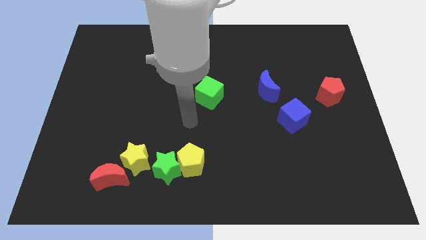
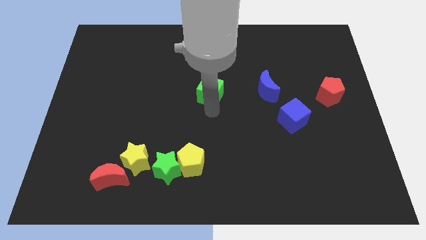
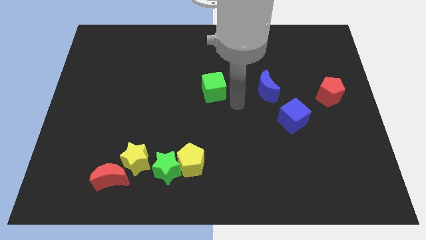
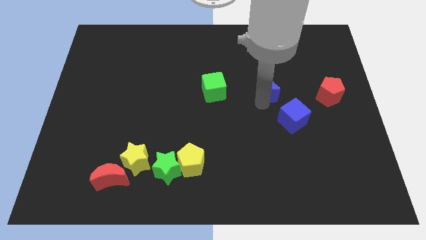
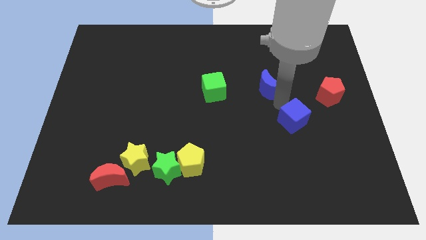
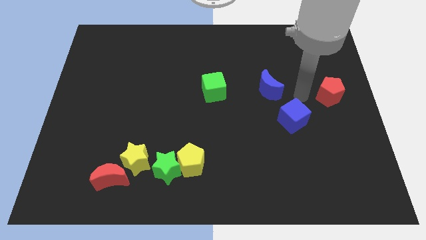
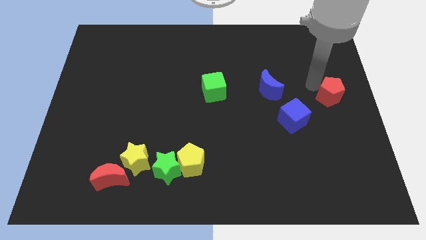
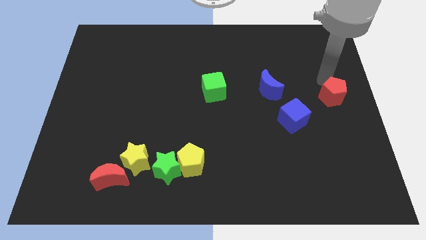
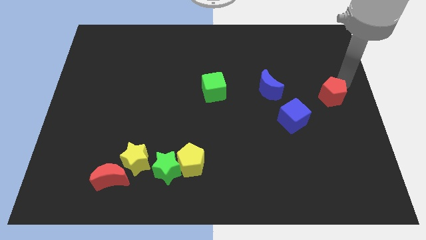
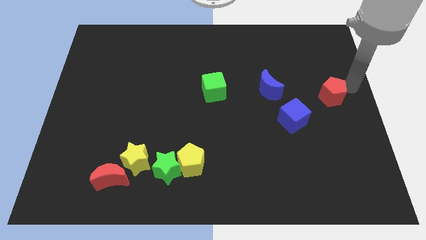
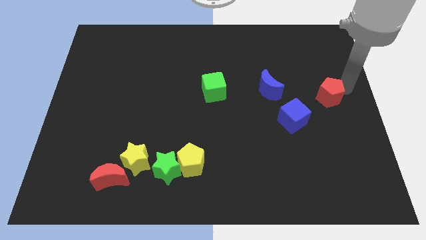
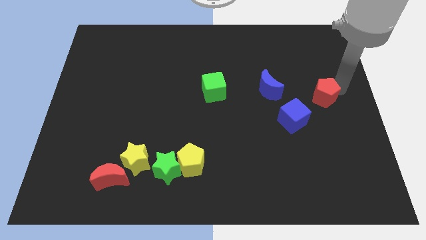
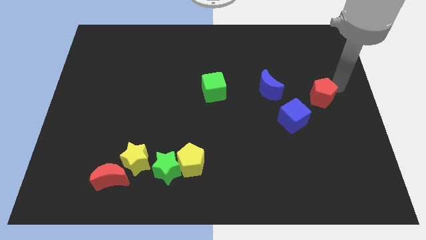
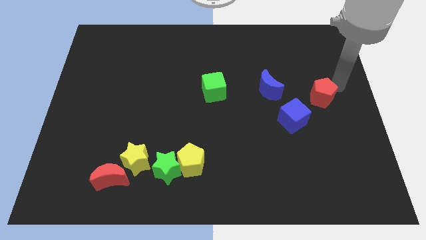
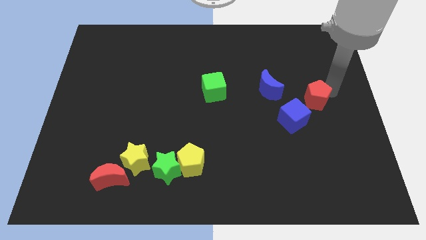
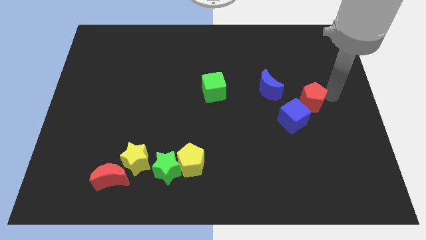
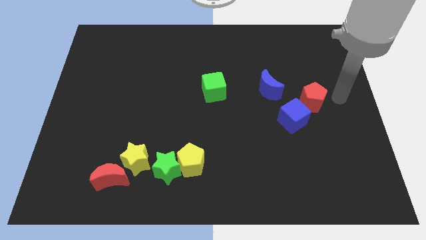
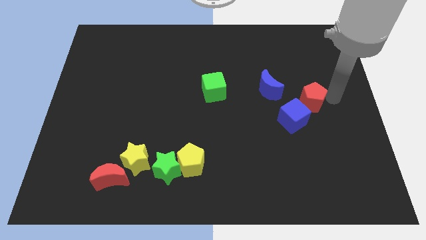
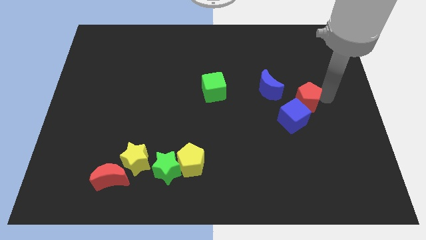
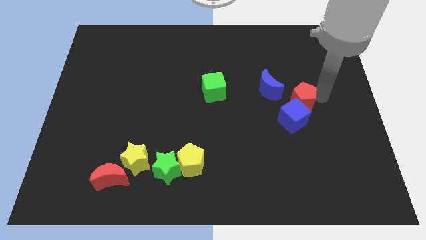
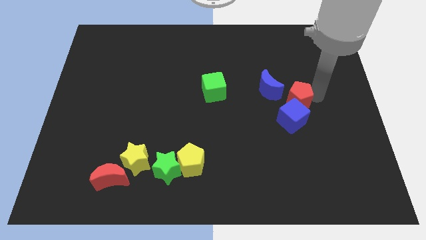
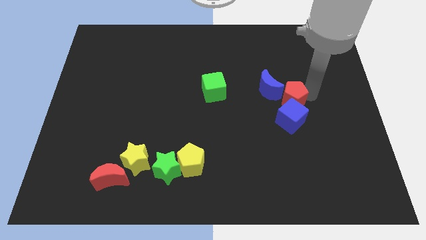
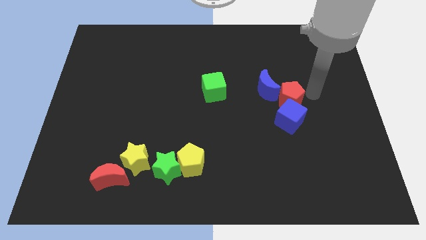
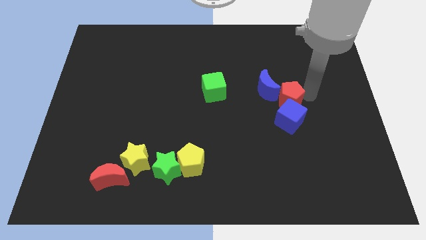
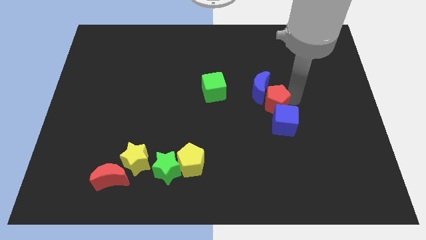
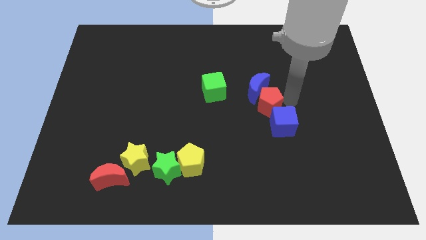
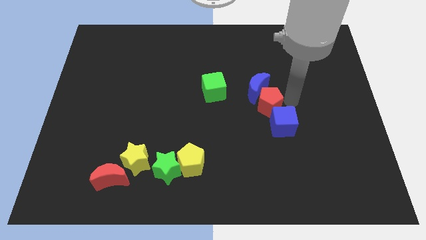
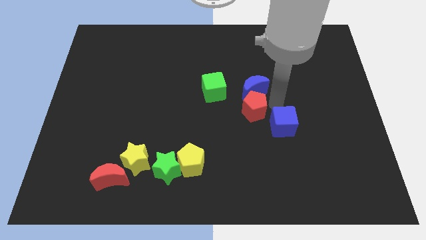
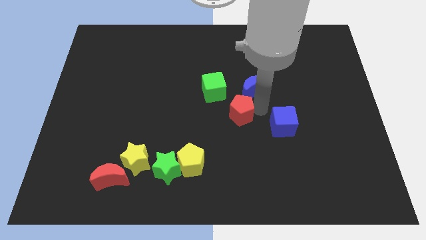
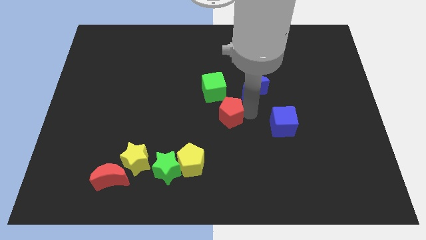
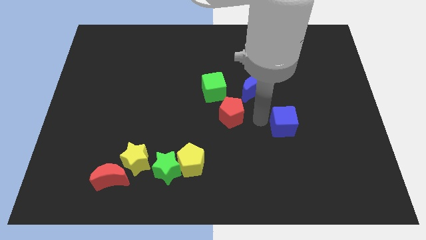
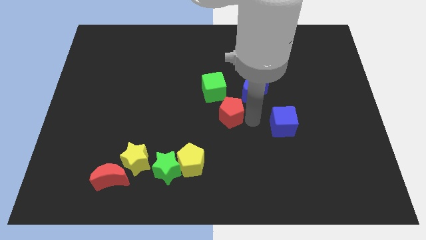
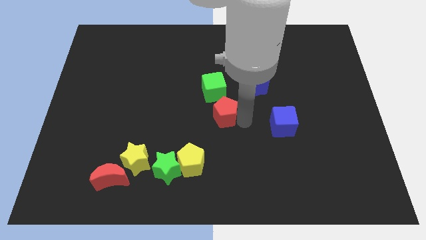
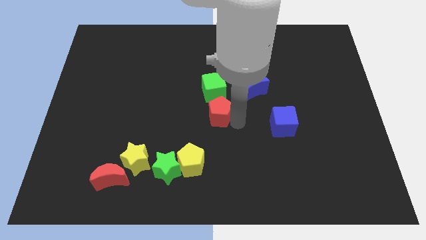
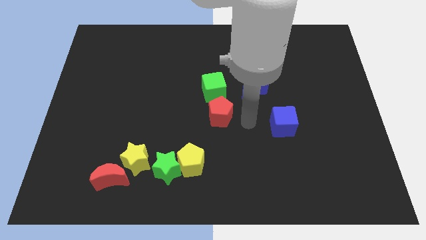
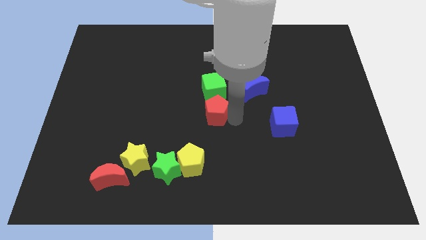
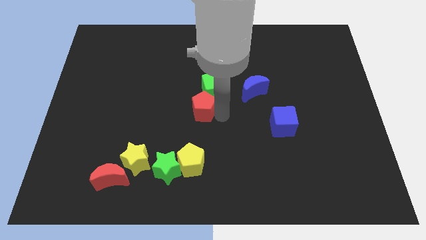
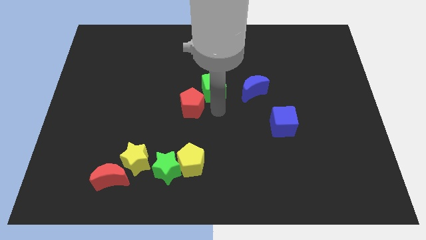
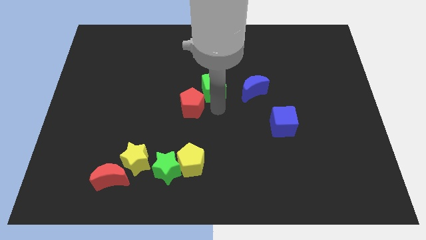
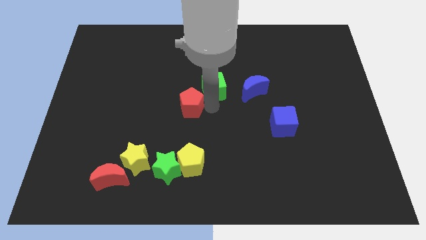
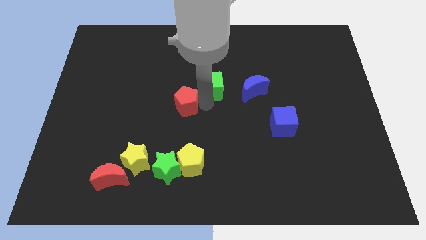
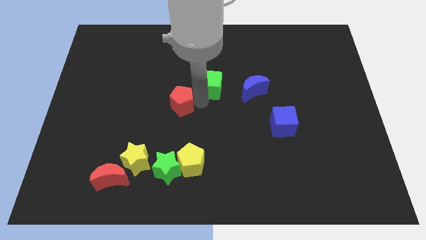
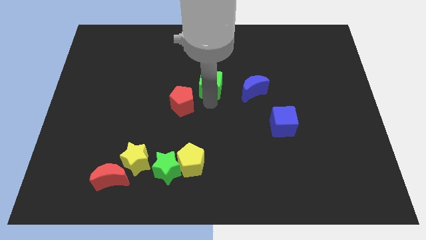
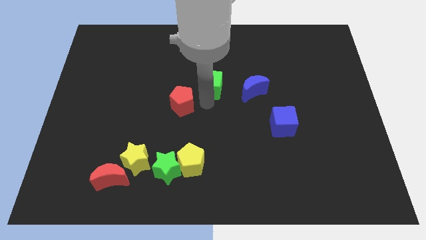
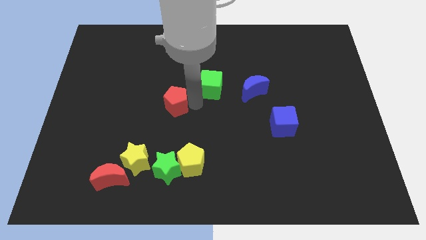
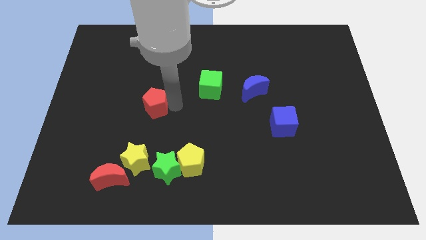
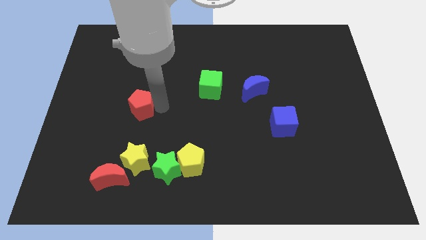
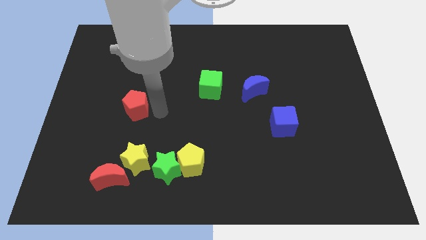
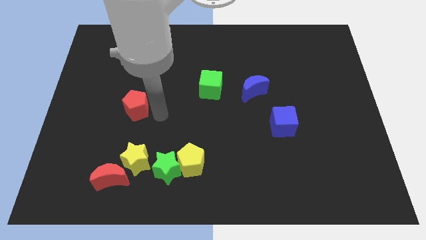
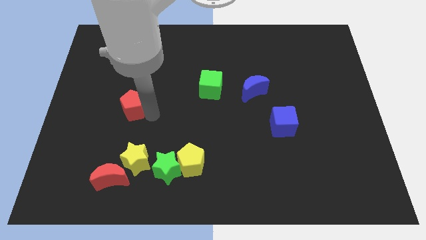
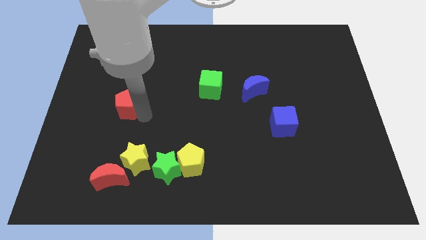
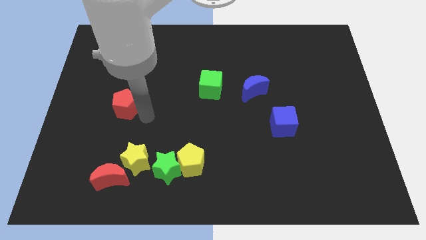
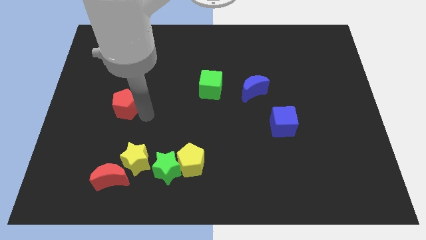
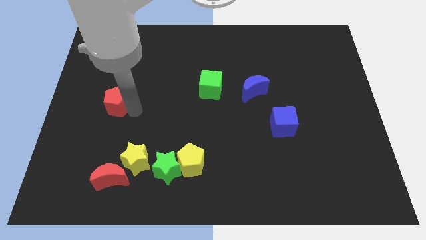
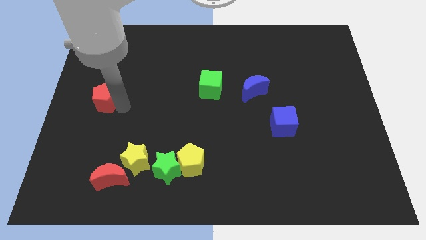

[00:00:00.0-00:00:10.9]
slide the red pentagon to the center left

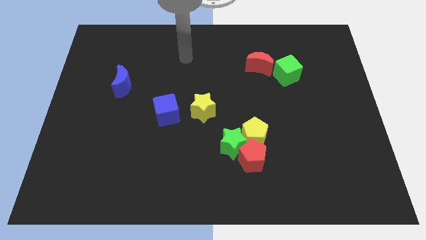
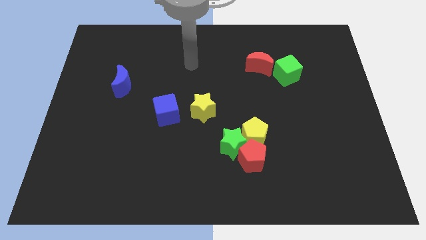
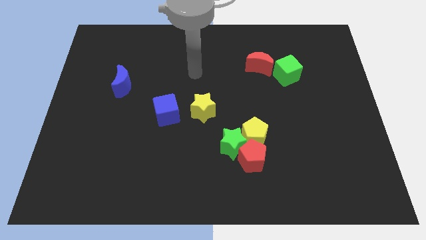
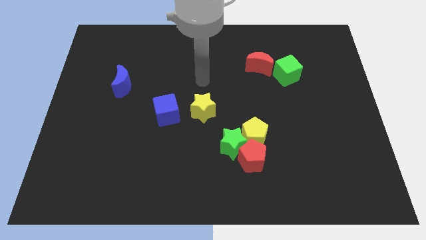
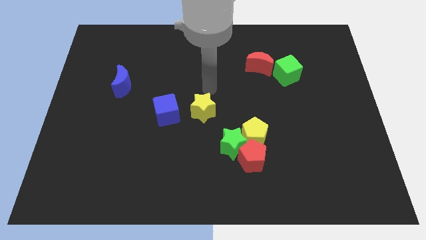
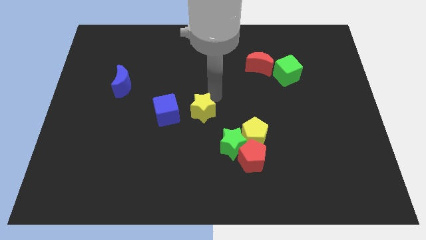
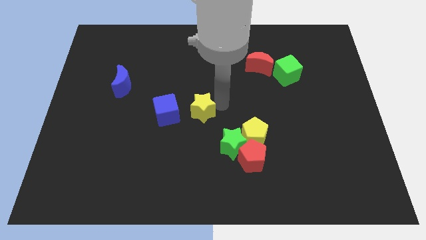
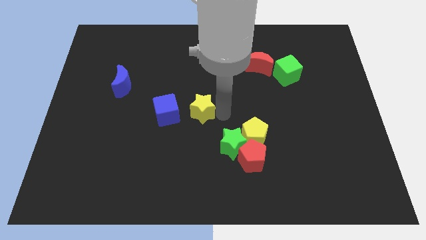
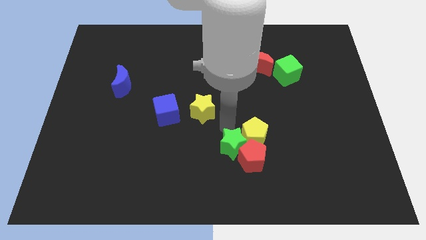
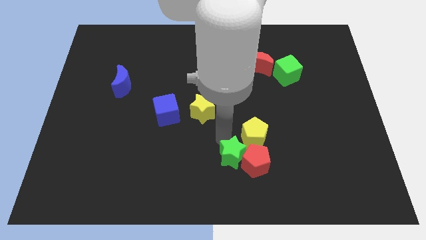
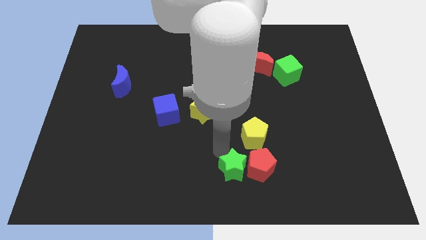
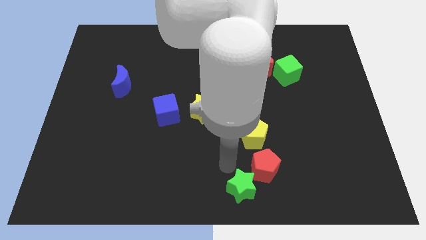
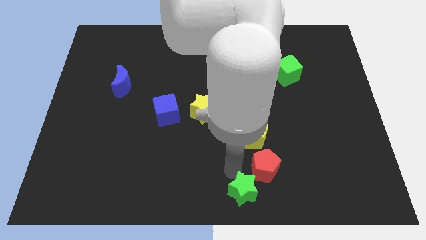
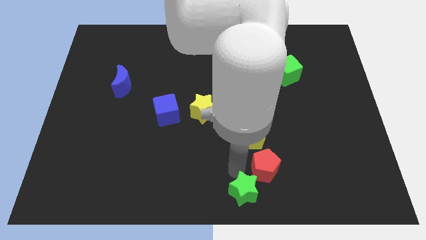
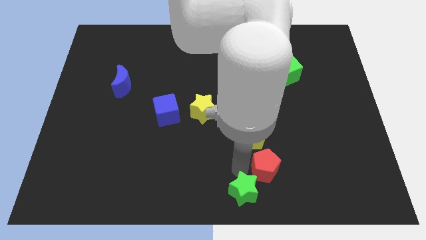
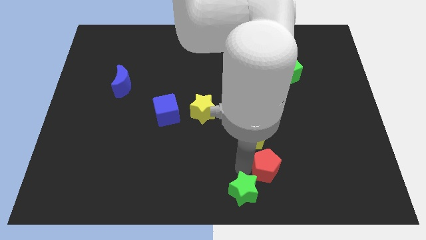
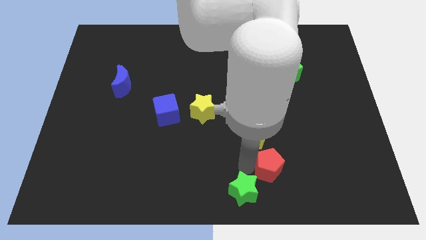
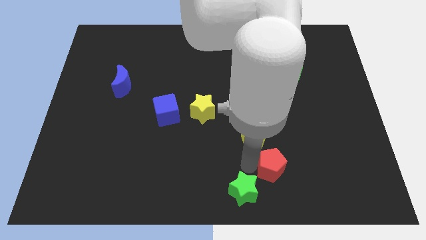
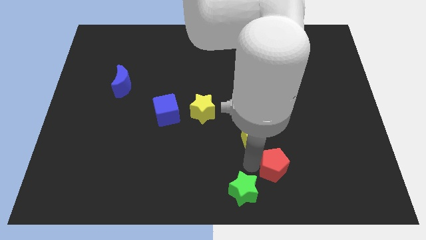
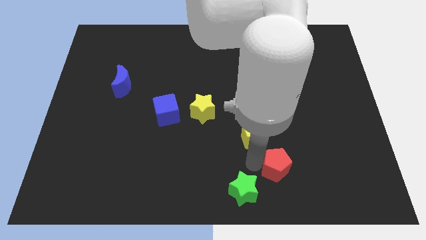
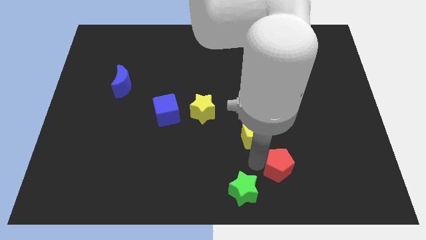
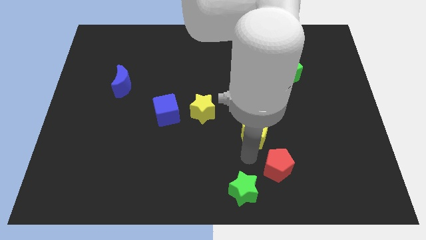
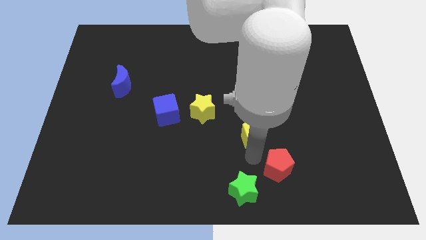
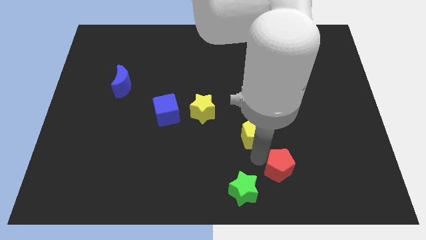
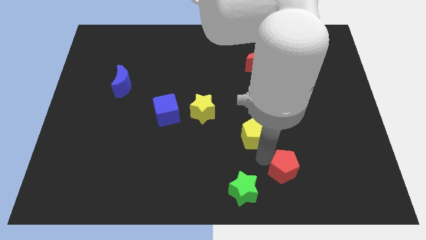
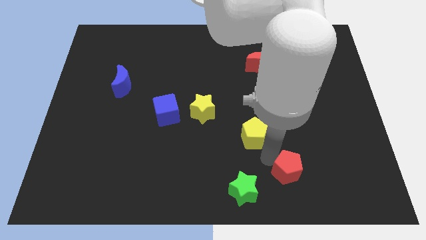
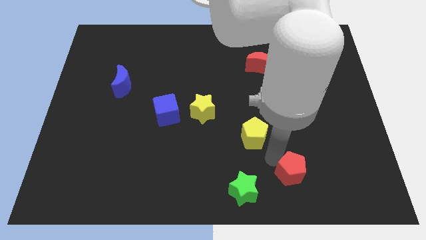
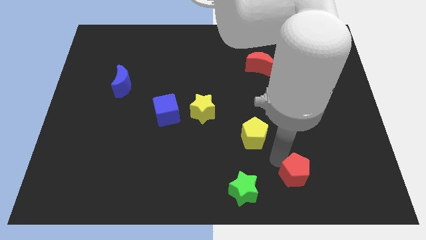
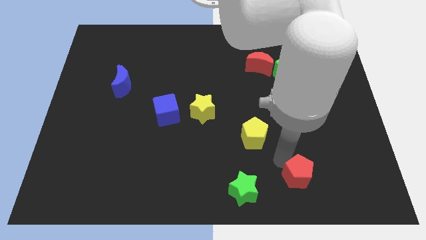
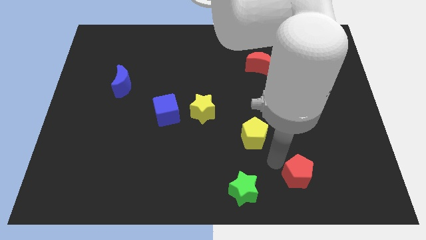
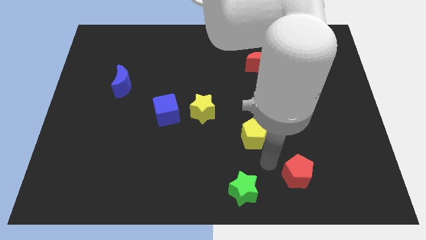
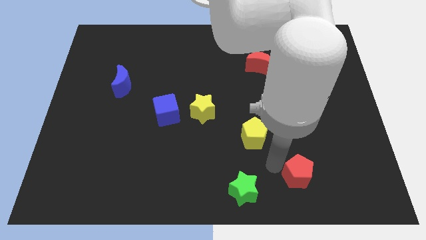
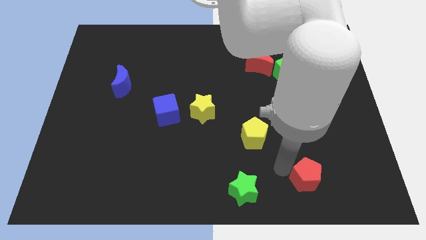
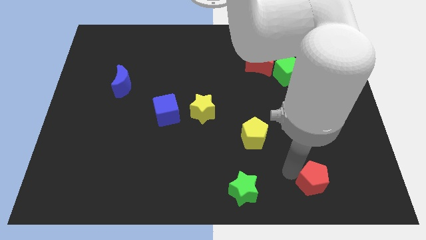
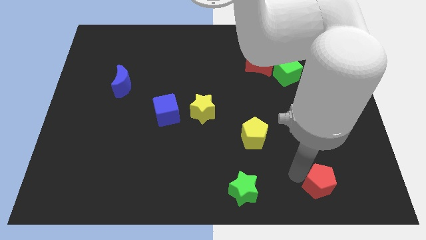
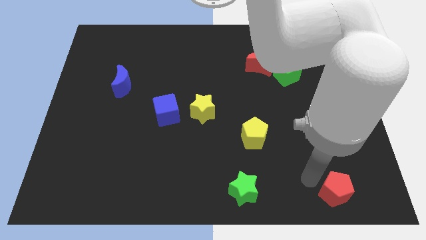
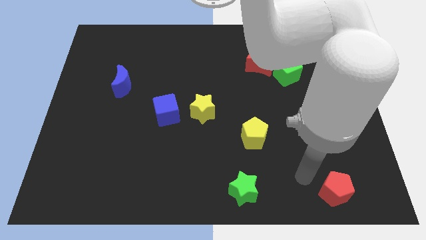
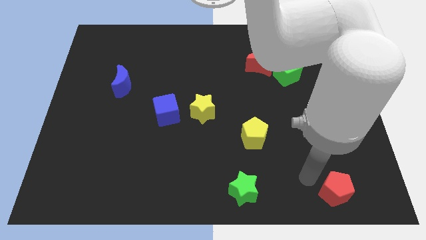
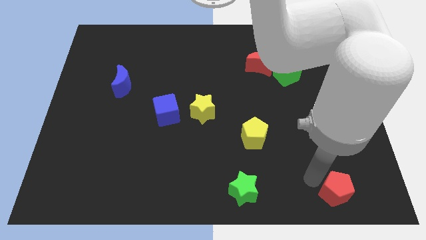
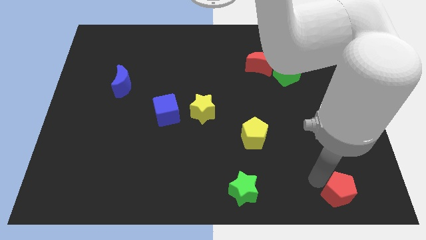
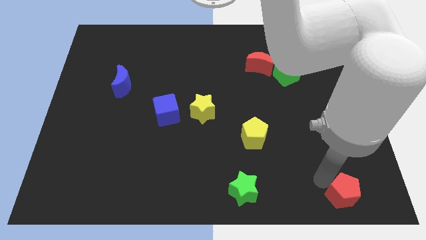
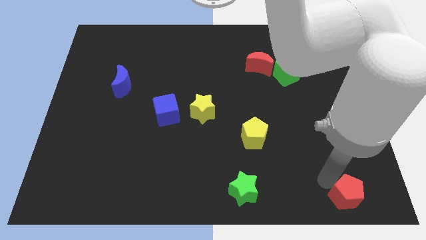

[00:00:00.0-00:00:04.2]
move the red pentagon to the bottom right corner
